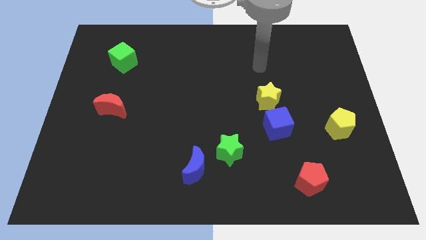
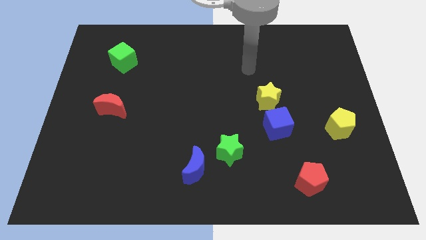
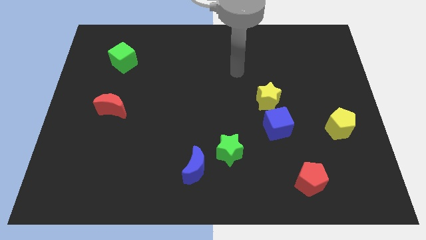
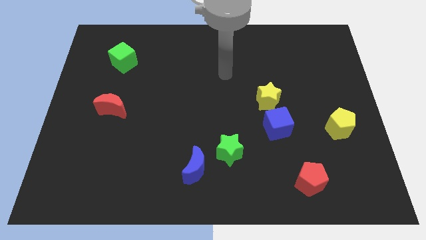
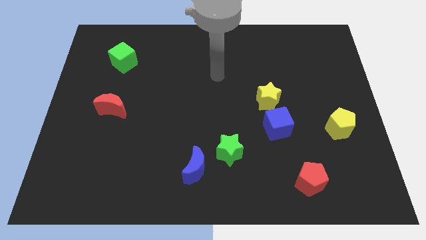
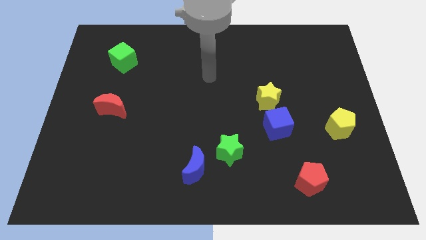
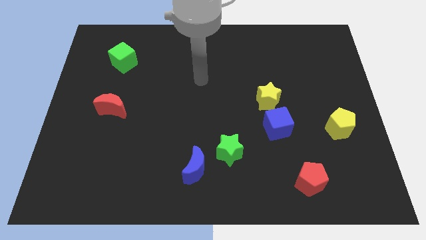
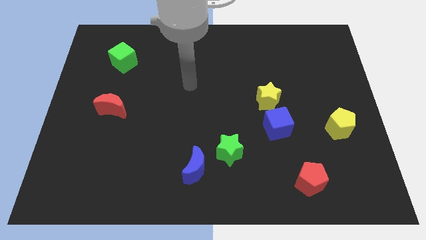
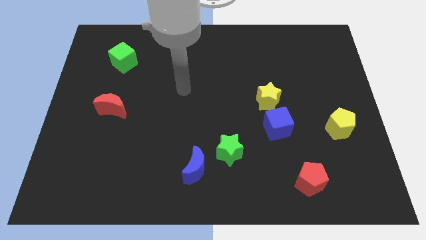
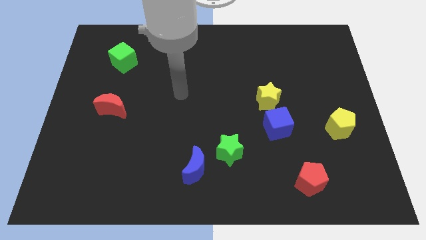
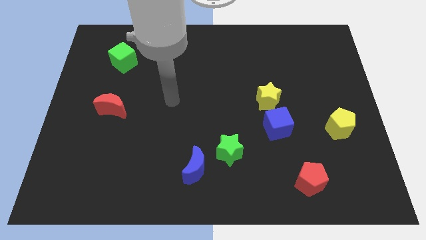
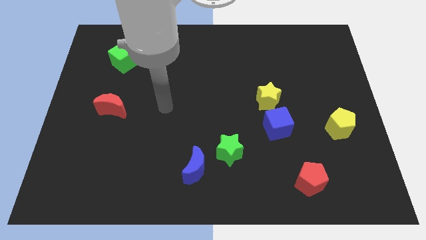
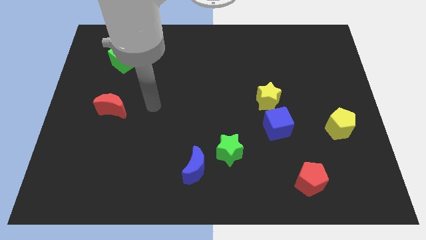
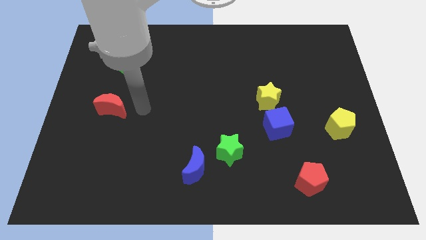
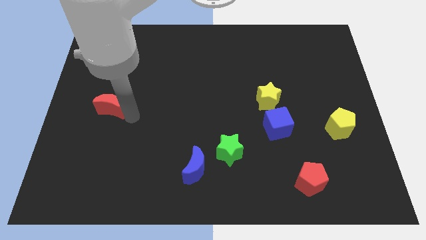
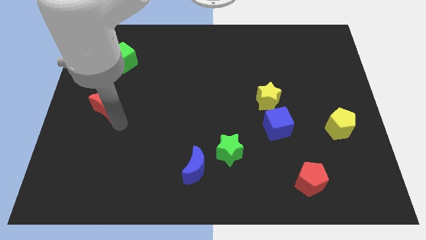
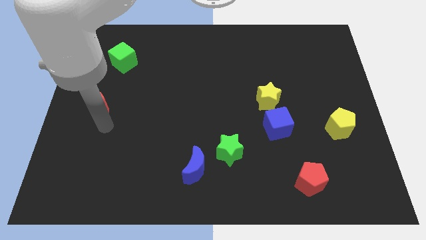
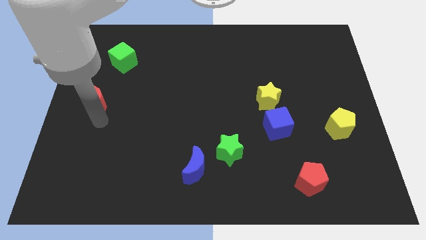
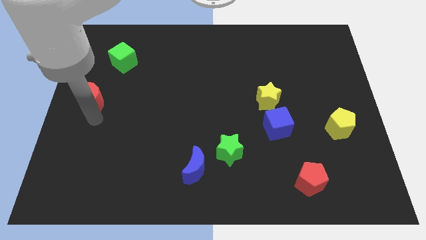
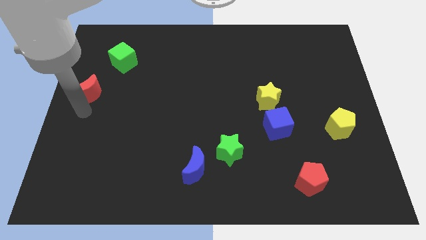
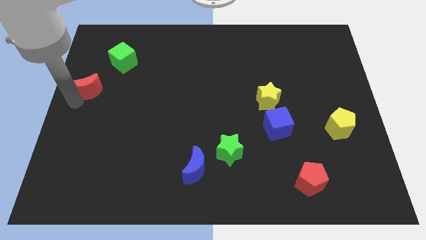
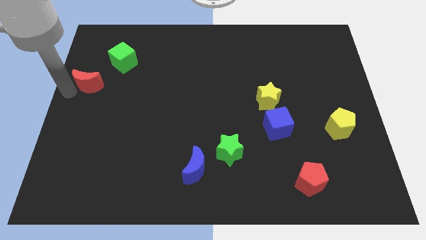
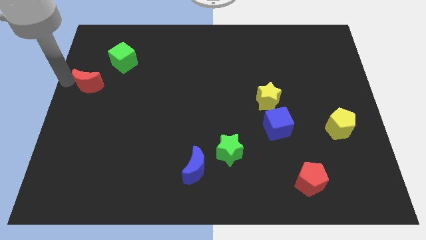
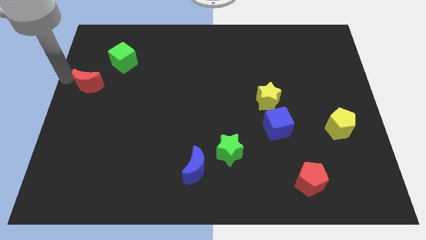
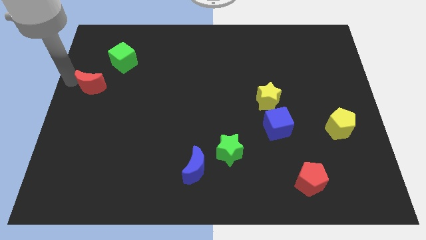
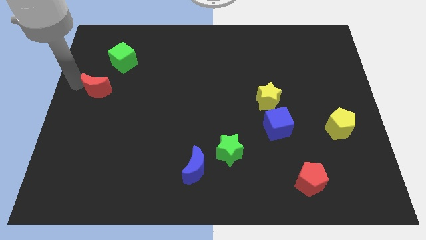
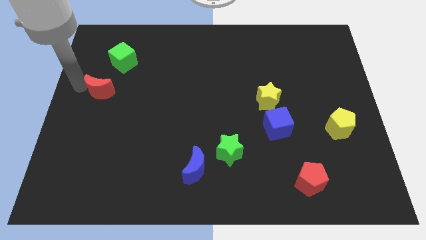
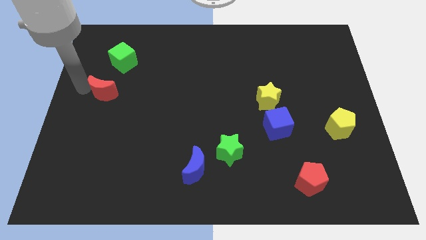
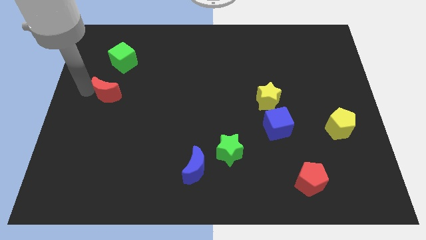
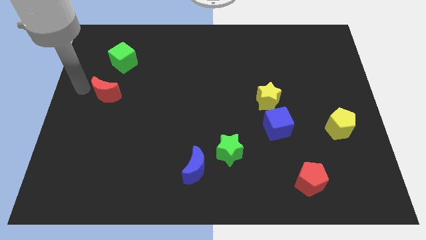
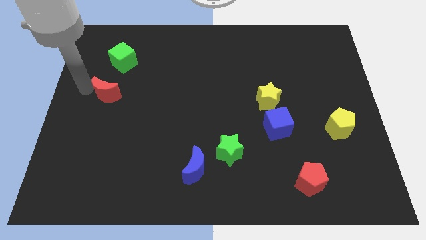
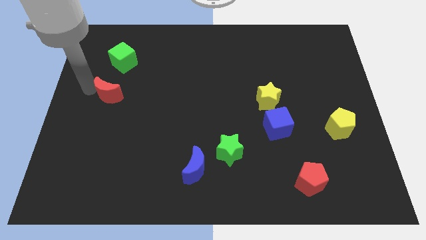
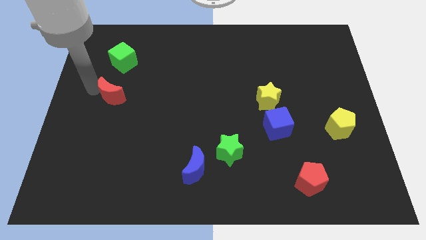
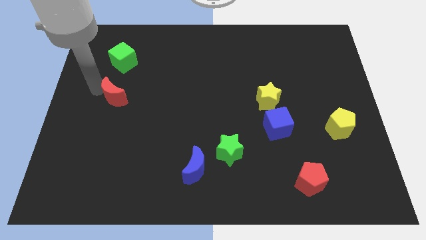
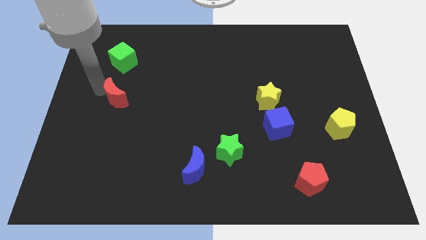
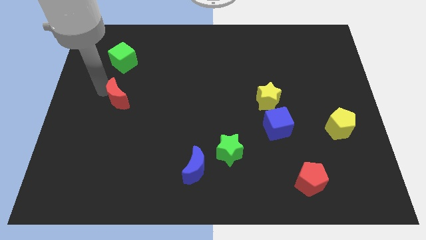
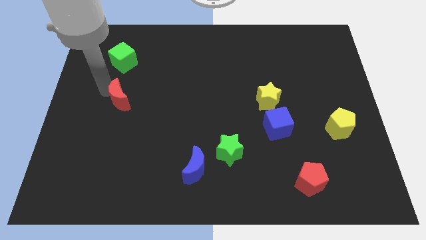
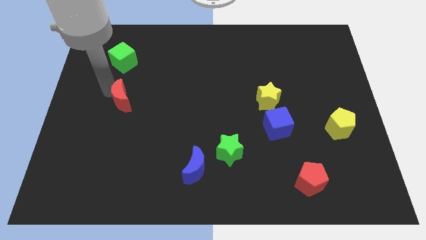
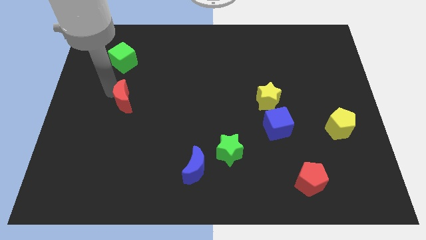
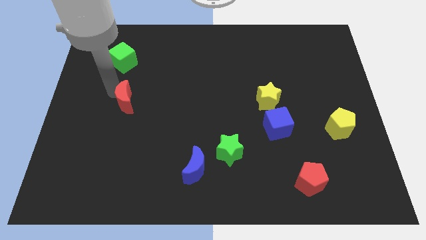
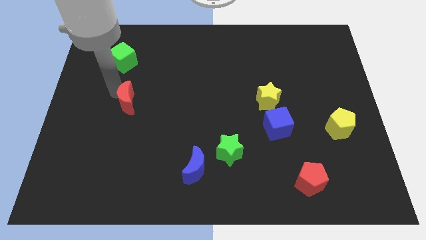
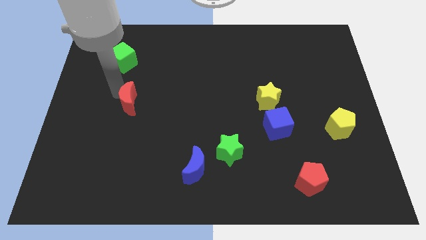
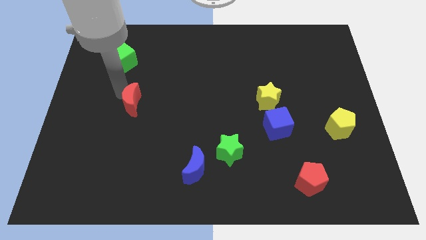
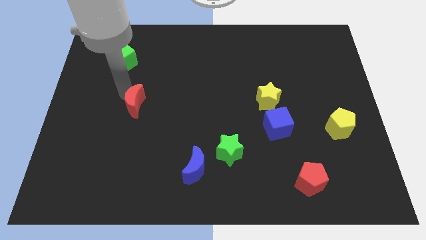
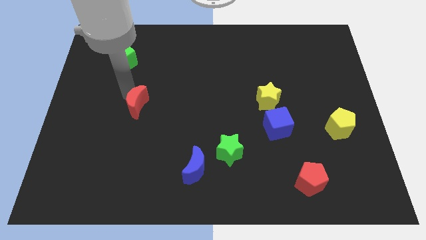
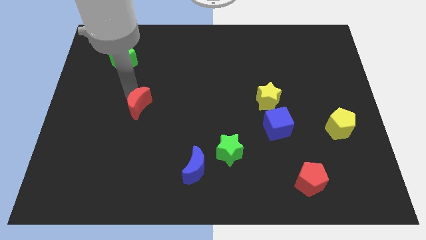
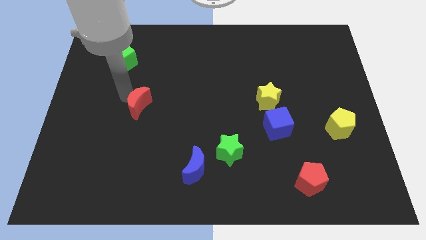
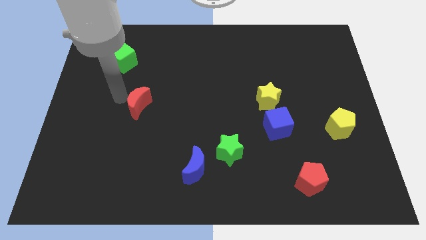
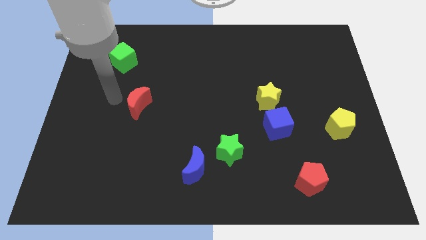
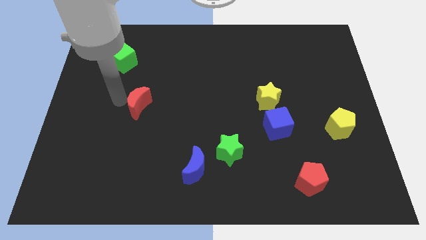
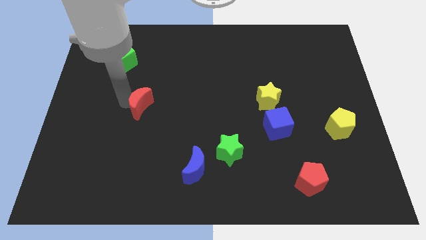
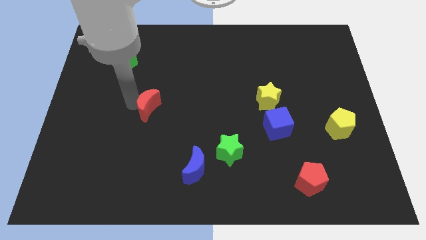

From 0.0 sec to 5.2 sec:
move the red moon a little right

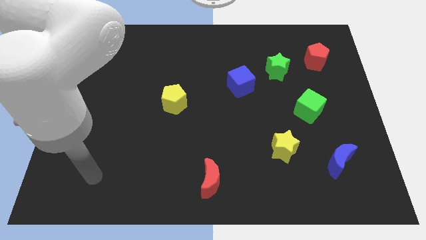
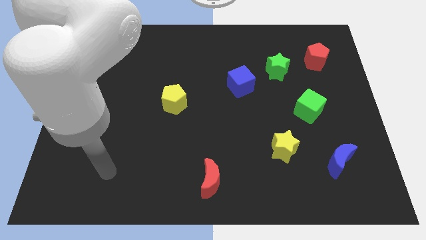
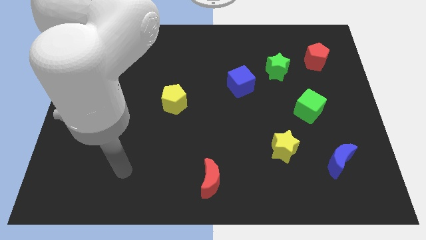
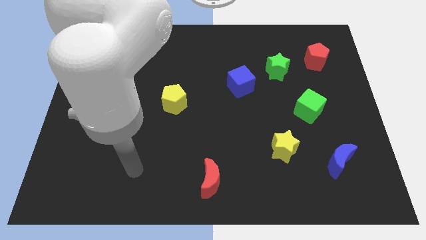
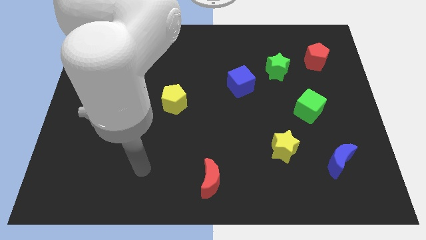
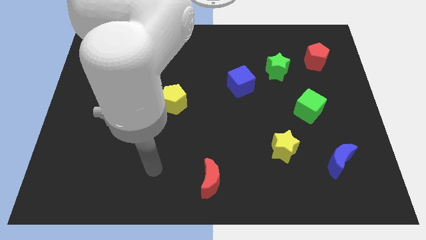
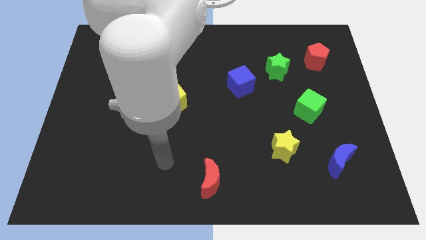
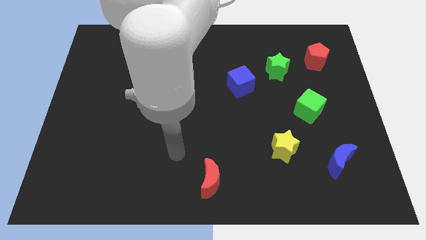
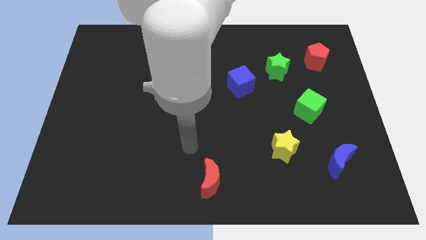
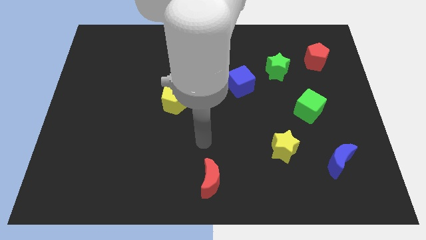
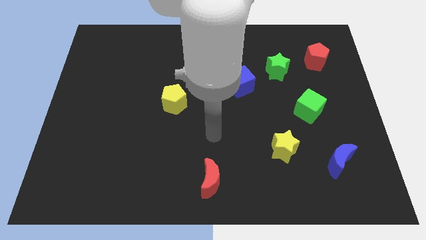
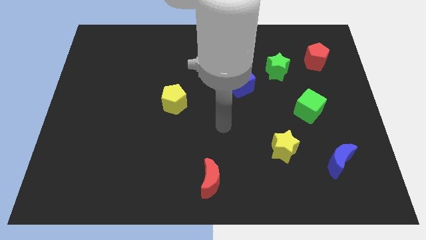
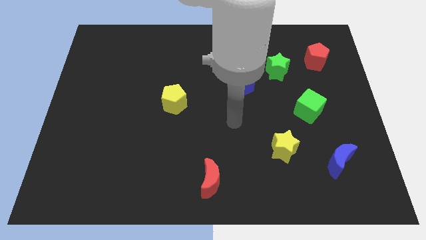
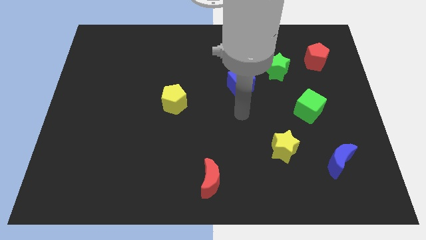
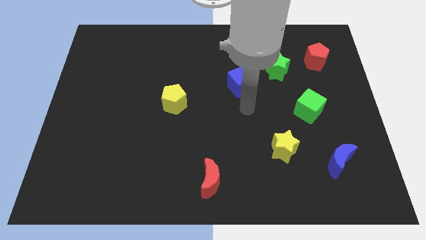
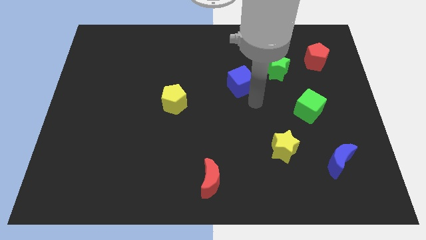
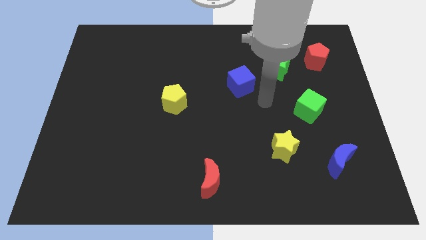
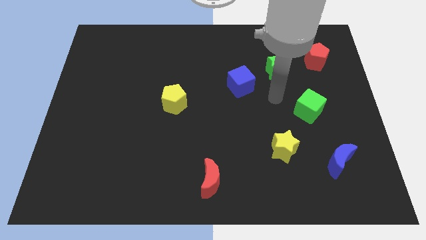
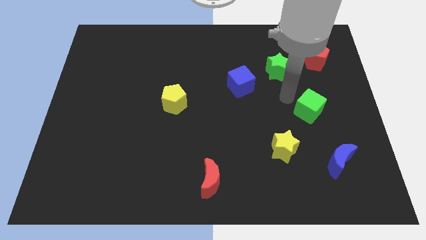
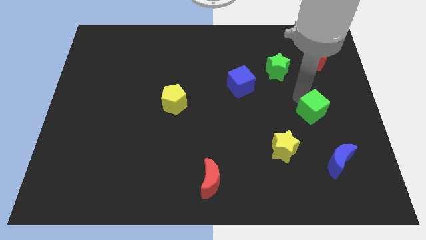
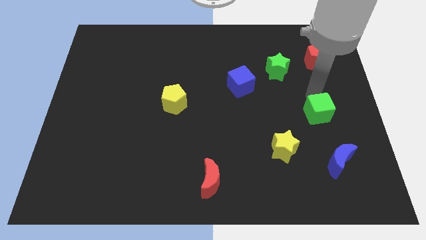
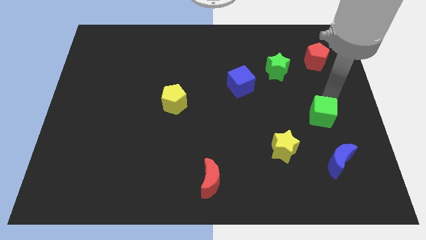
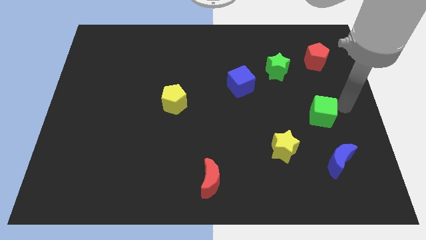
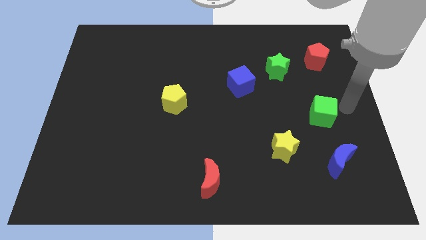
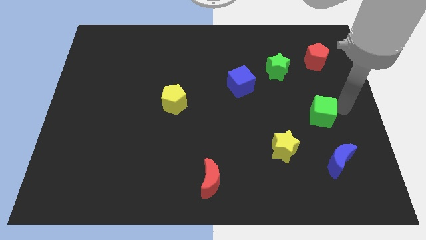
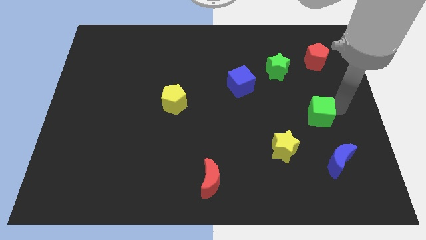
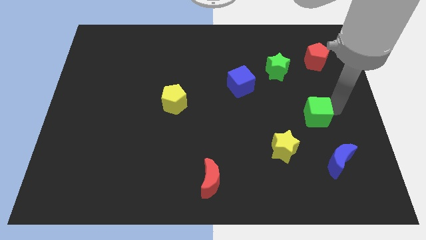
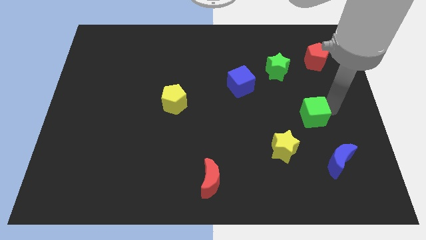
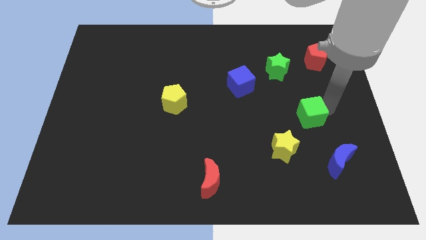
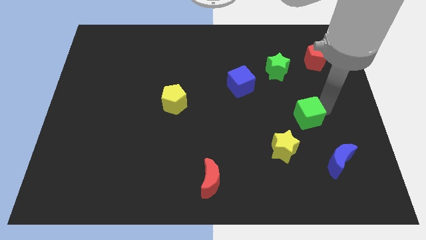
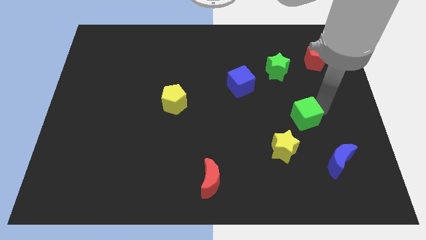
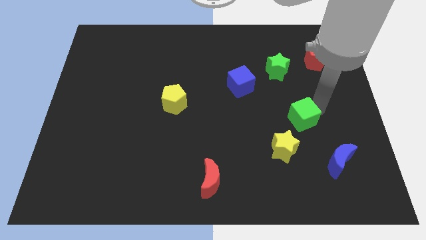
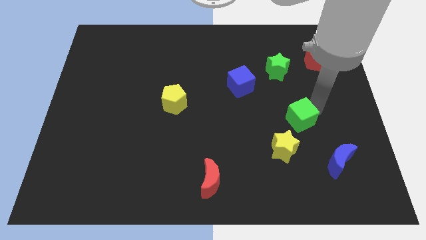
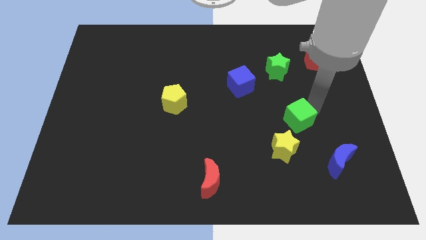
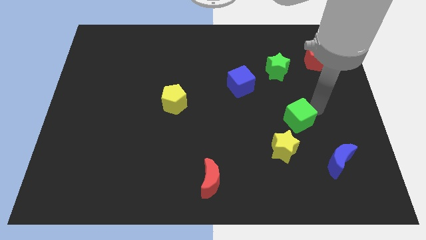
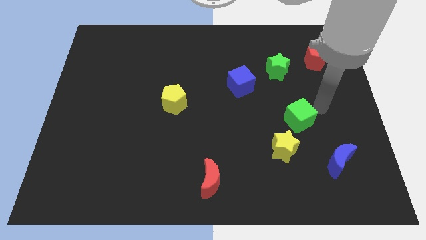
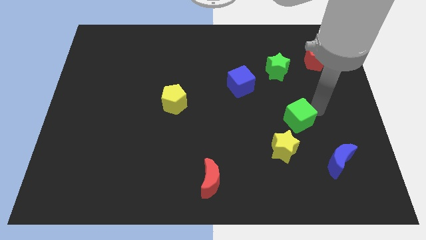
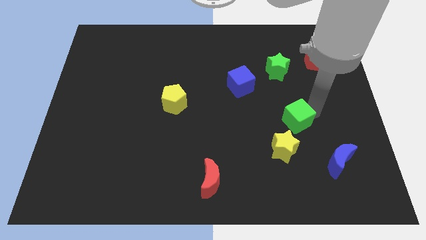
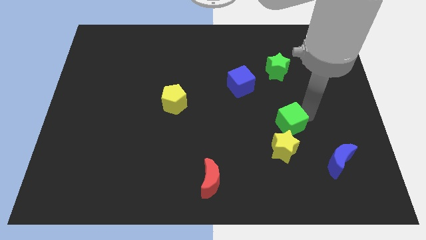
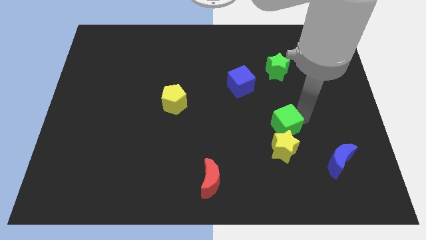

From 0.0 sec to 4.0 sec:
push the green cube downwards and left diagonally slightly
